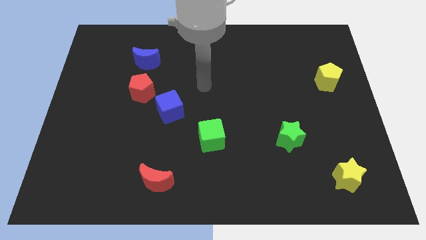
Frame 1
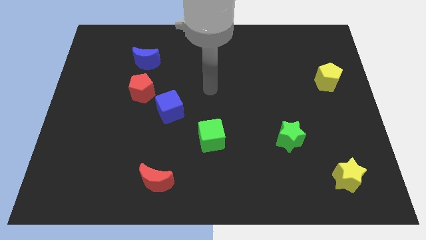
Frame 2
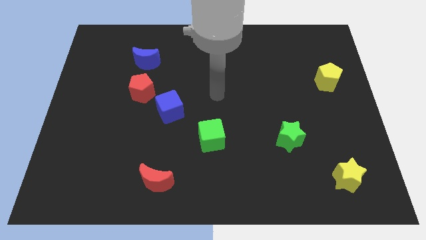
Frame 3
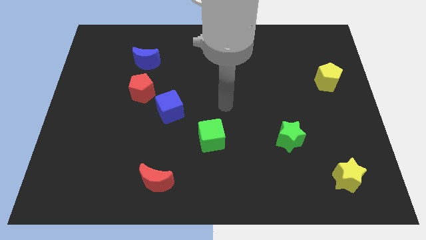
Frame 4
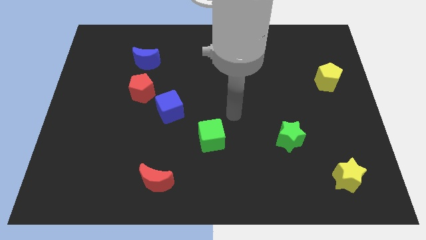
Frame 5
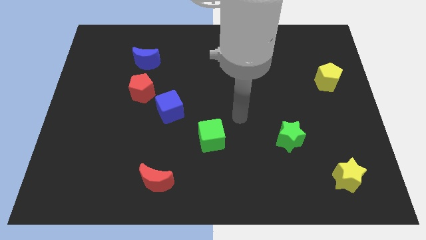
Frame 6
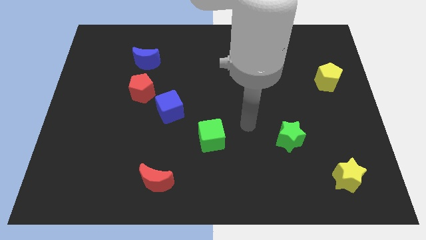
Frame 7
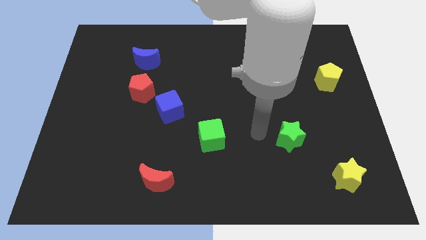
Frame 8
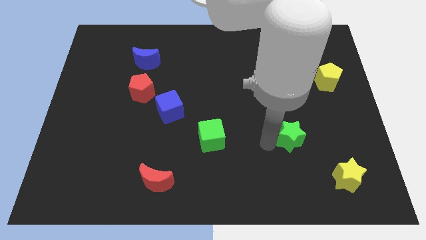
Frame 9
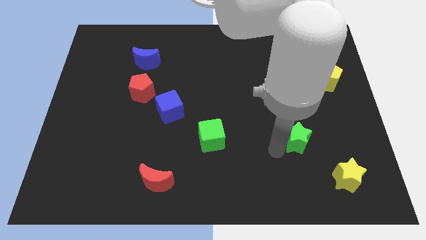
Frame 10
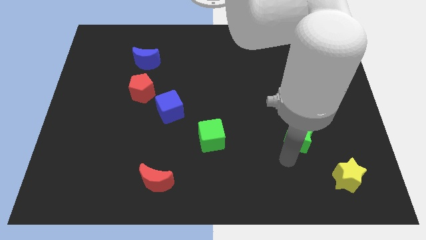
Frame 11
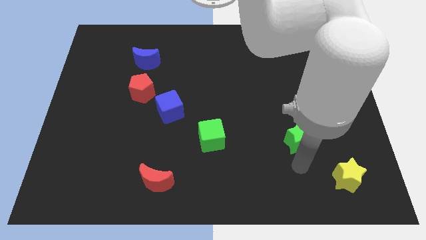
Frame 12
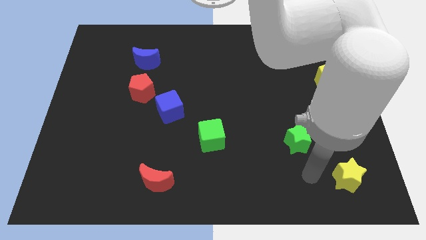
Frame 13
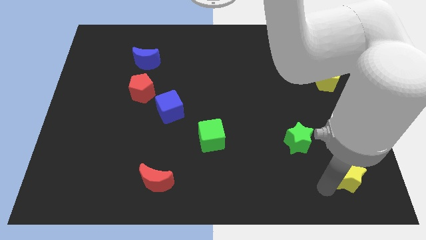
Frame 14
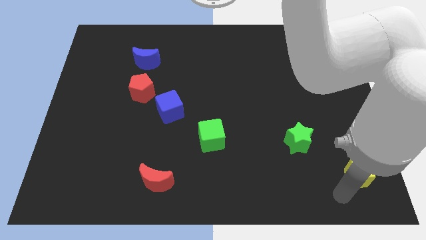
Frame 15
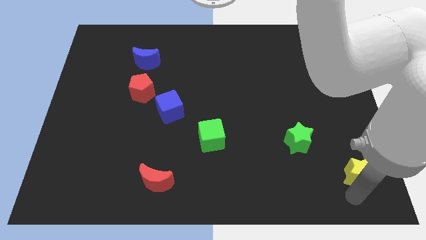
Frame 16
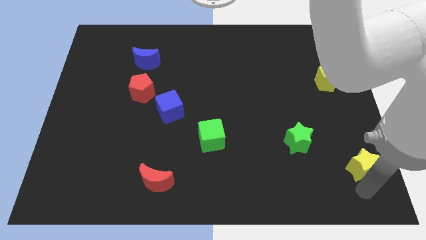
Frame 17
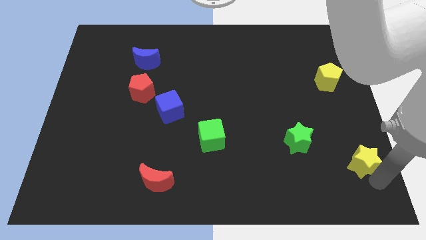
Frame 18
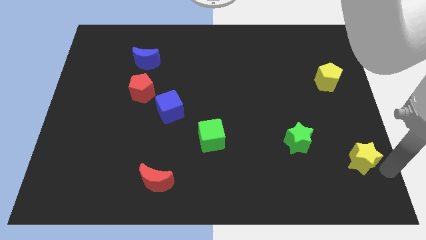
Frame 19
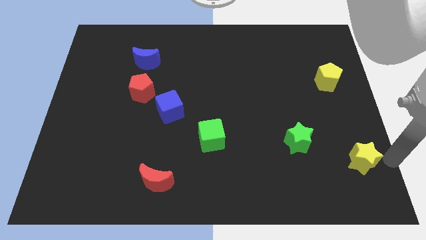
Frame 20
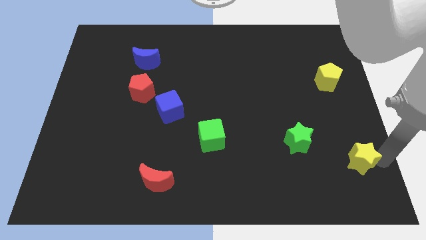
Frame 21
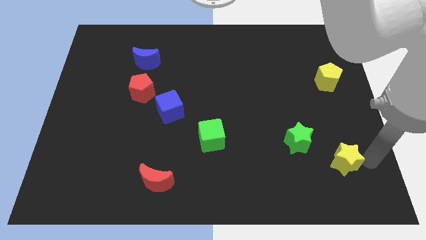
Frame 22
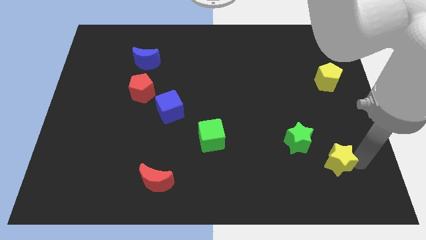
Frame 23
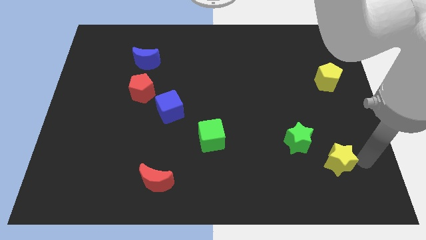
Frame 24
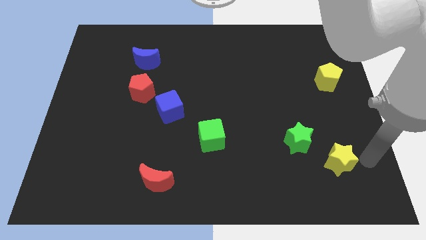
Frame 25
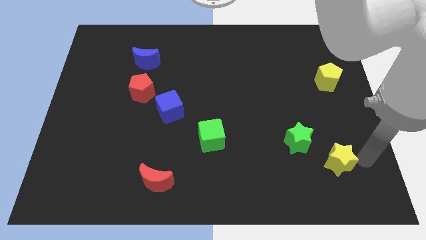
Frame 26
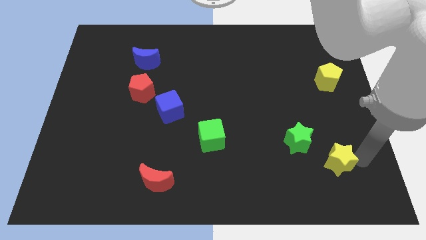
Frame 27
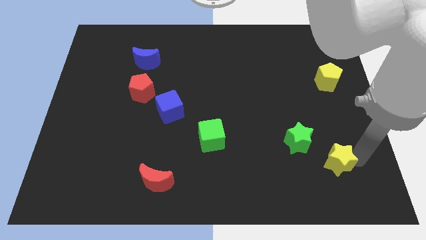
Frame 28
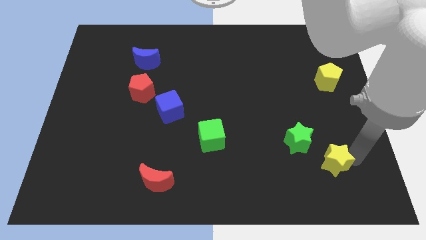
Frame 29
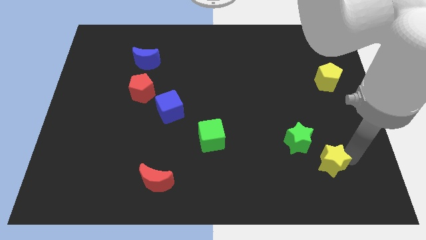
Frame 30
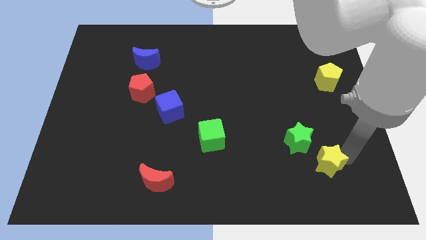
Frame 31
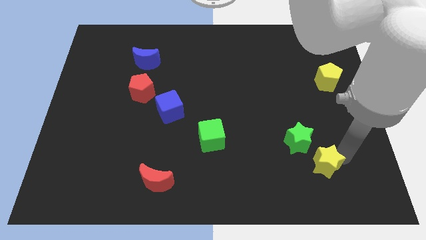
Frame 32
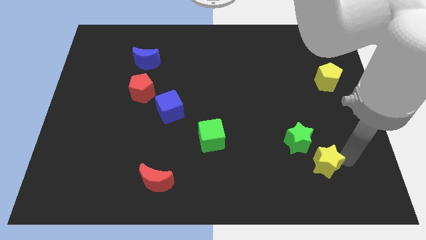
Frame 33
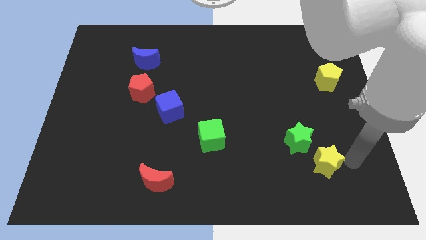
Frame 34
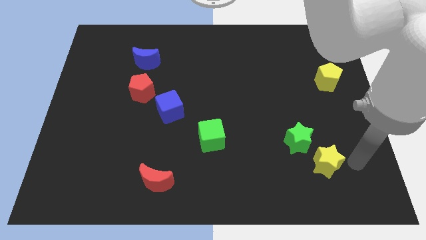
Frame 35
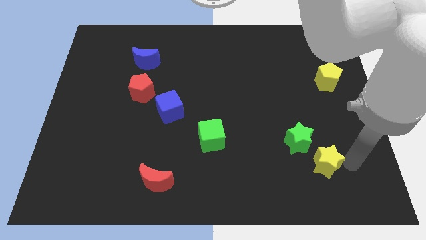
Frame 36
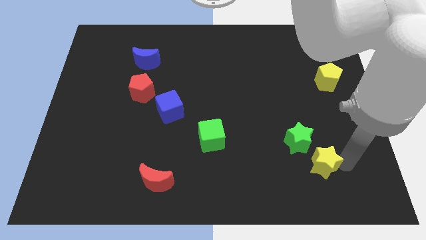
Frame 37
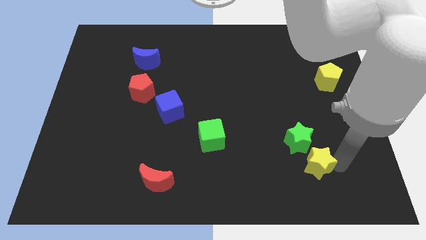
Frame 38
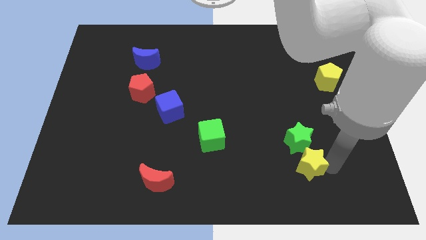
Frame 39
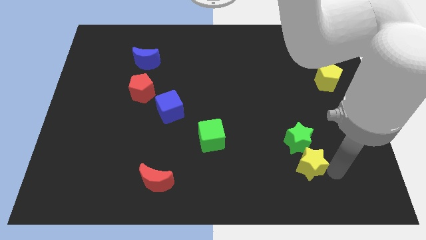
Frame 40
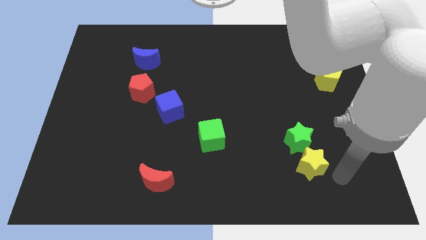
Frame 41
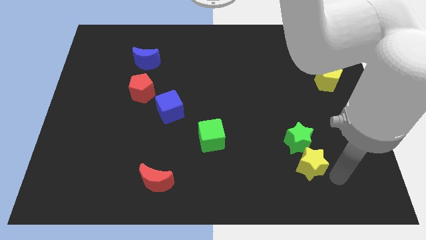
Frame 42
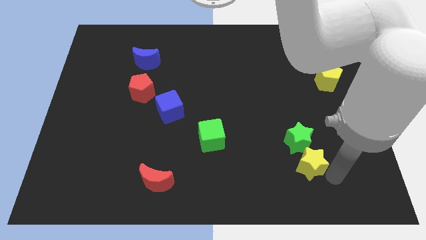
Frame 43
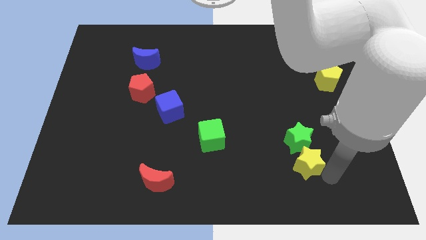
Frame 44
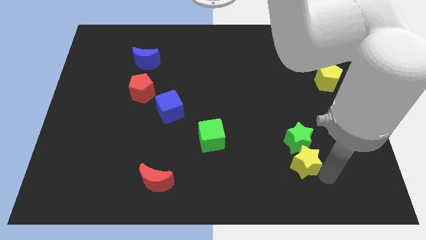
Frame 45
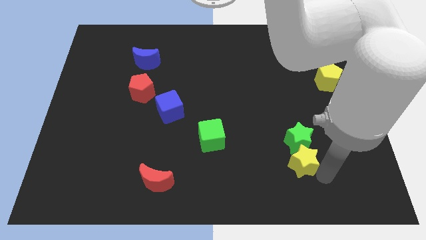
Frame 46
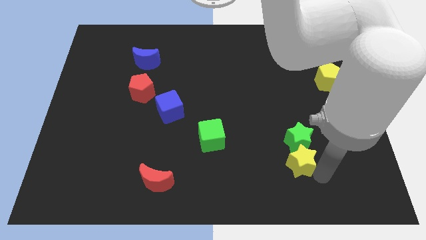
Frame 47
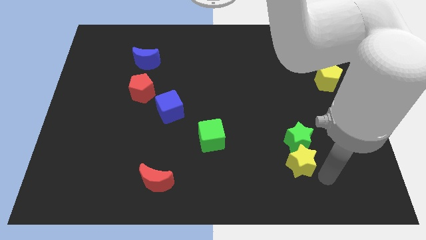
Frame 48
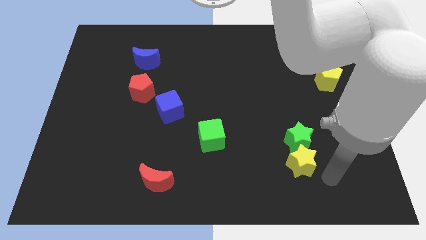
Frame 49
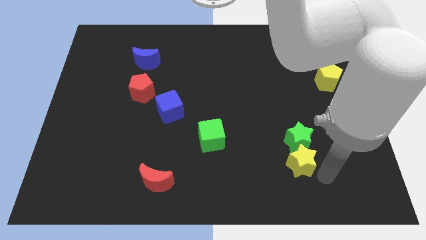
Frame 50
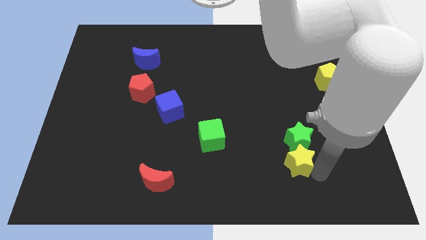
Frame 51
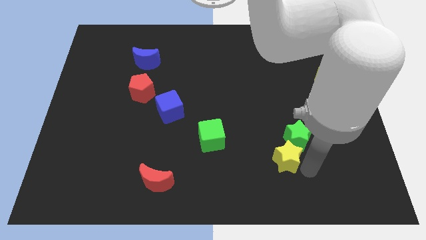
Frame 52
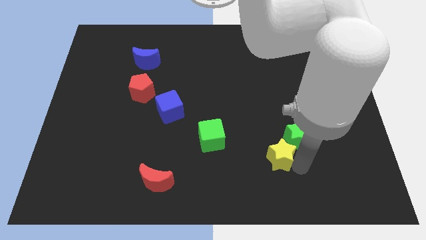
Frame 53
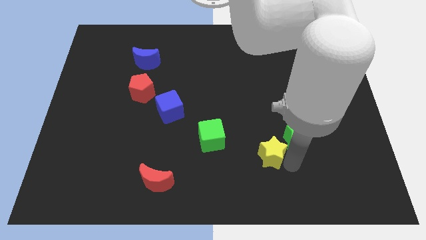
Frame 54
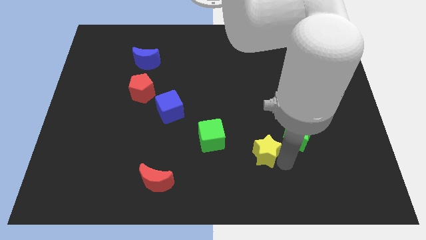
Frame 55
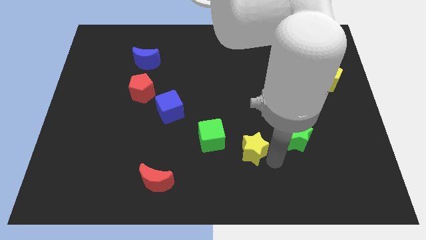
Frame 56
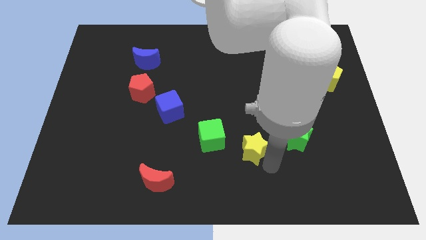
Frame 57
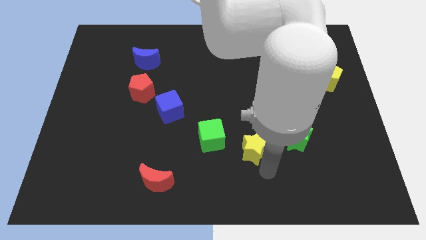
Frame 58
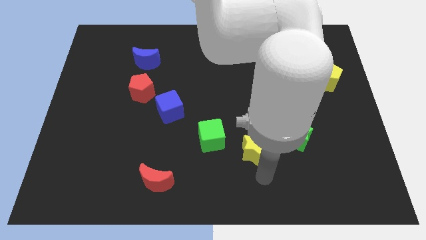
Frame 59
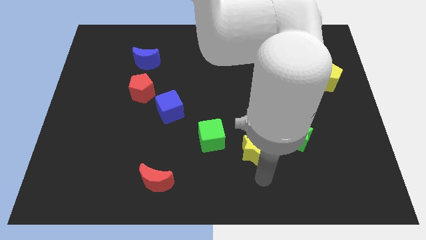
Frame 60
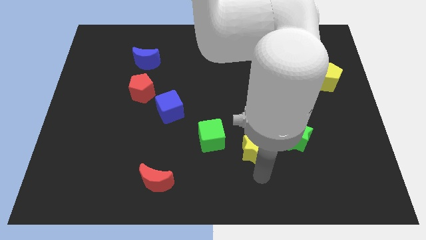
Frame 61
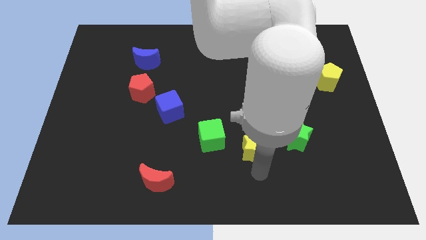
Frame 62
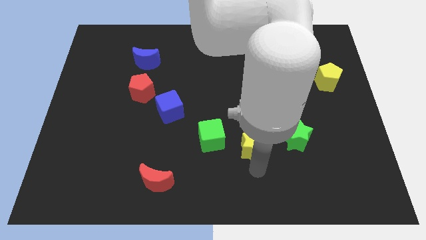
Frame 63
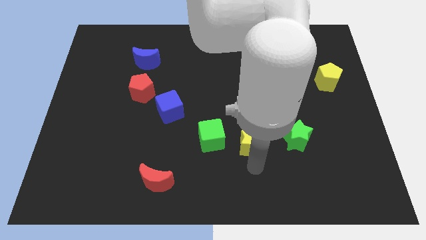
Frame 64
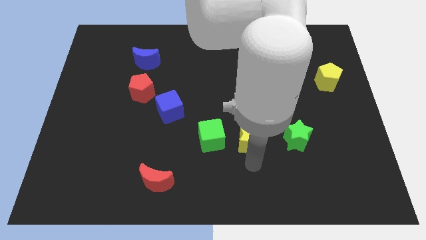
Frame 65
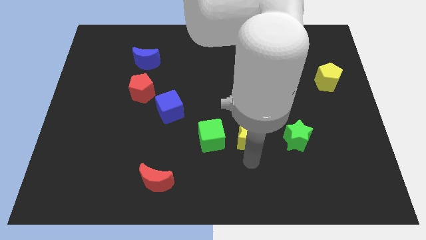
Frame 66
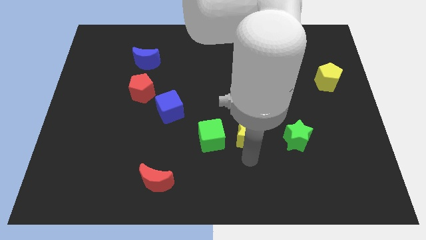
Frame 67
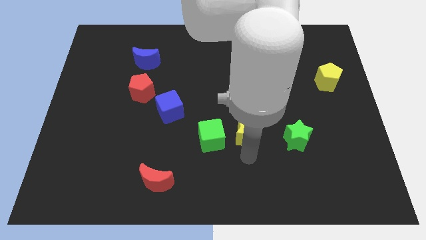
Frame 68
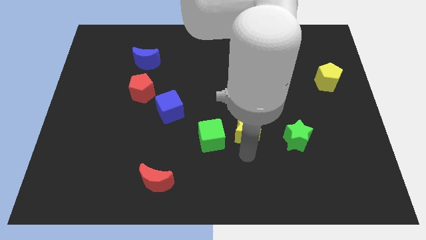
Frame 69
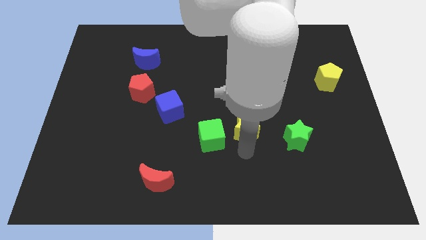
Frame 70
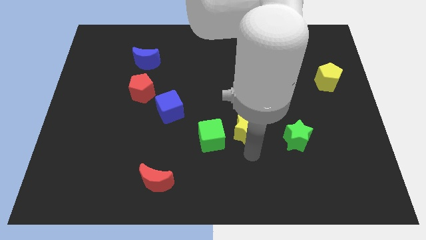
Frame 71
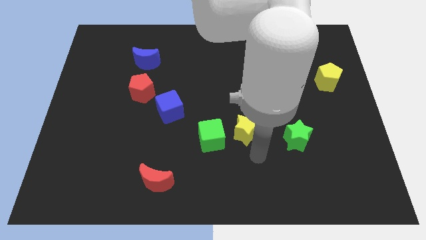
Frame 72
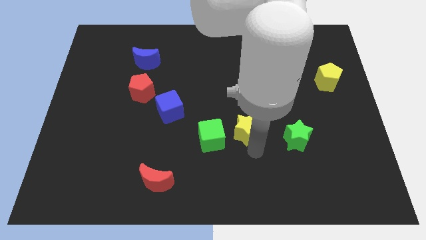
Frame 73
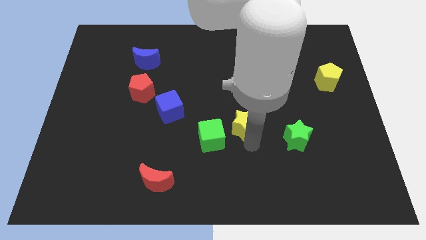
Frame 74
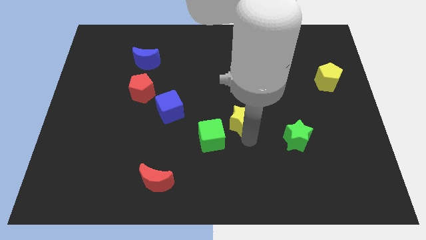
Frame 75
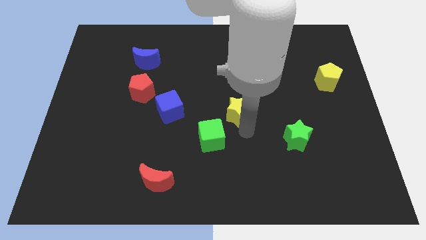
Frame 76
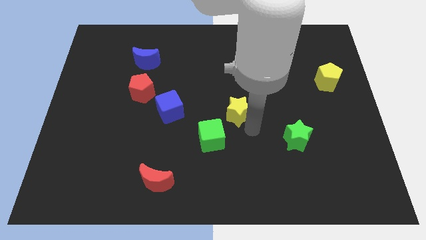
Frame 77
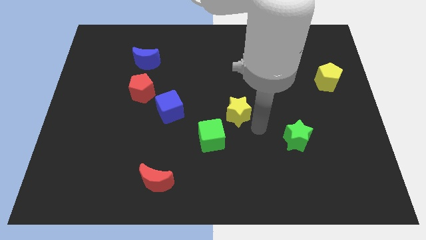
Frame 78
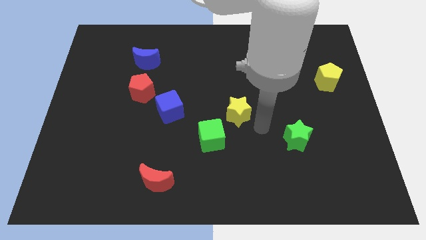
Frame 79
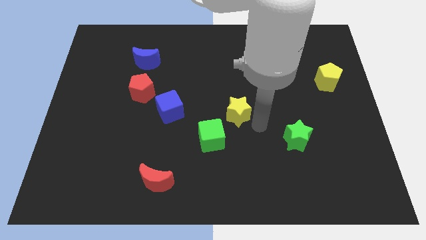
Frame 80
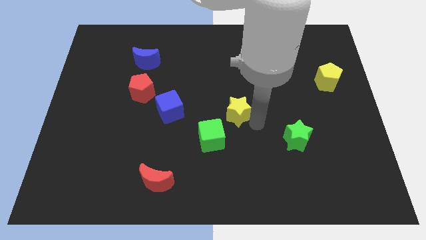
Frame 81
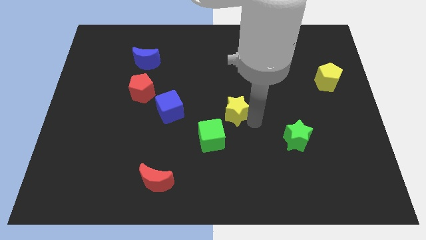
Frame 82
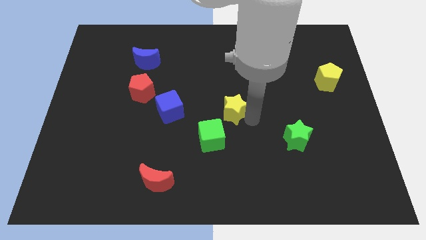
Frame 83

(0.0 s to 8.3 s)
push the yellow star to the top side of the green cube
